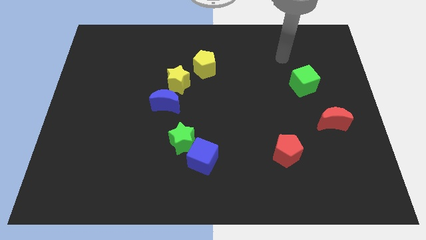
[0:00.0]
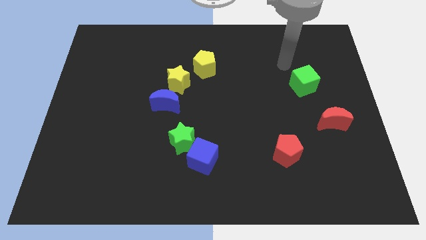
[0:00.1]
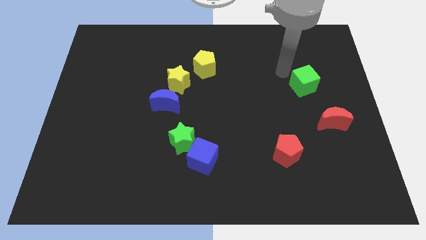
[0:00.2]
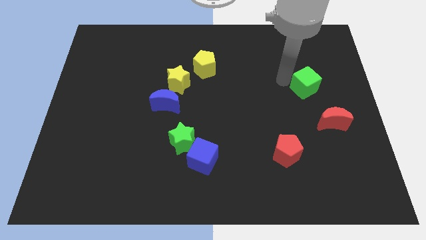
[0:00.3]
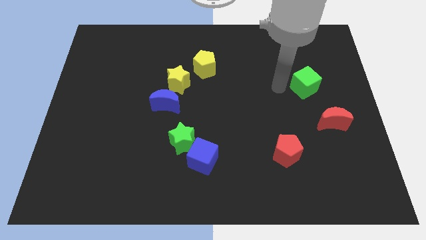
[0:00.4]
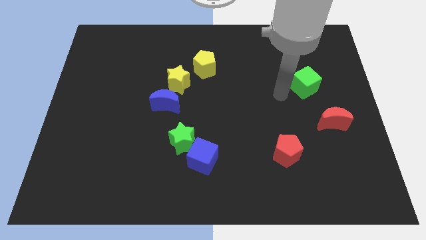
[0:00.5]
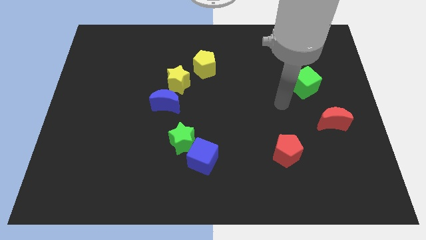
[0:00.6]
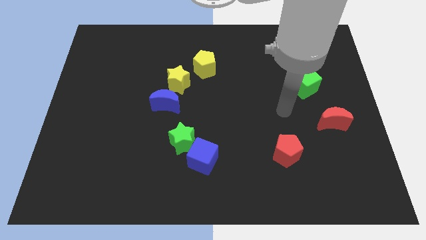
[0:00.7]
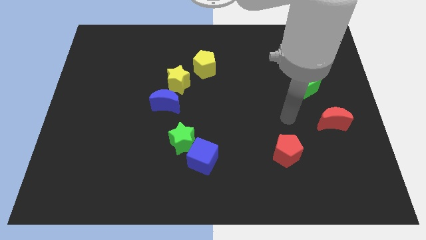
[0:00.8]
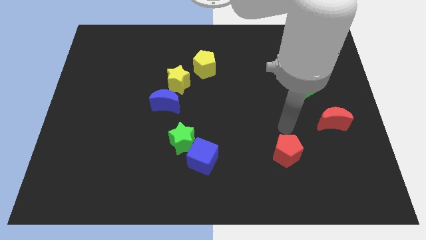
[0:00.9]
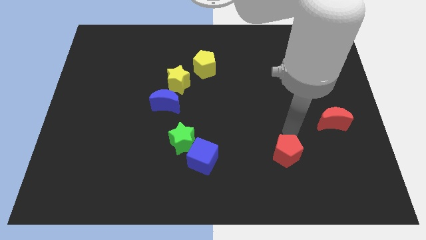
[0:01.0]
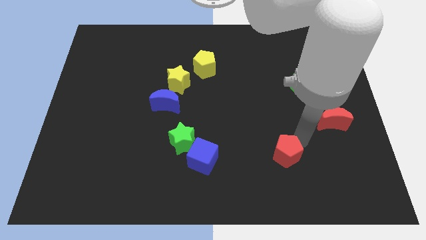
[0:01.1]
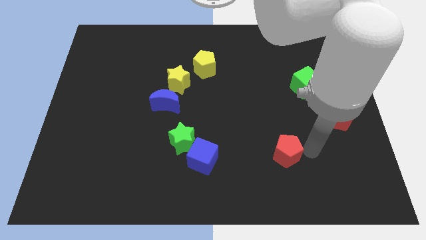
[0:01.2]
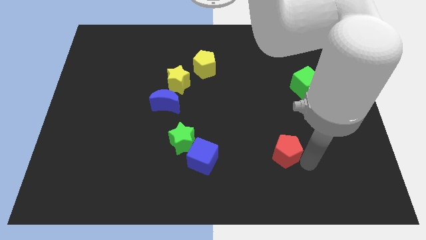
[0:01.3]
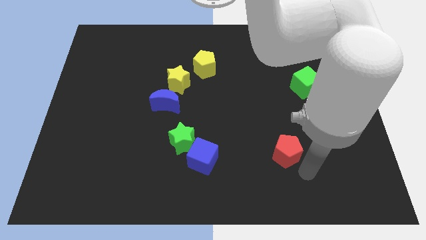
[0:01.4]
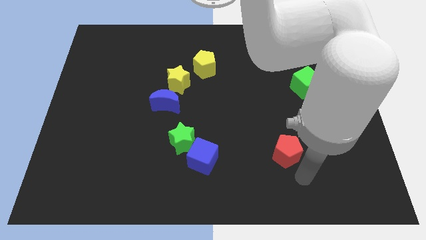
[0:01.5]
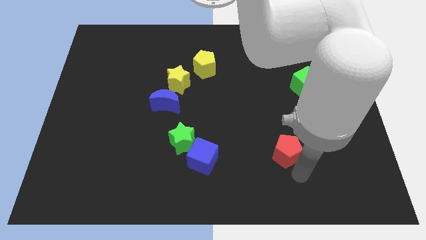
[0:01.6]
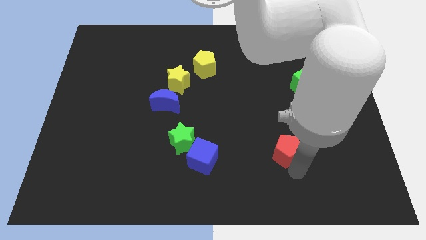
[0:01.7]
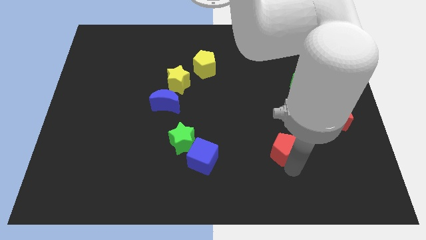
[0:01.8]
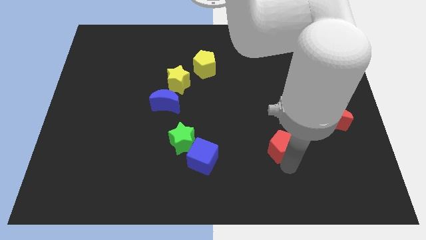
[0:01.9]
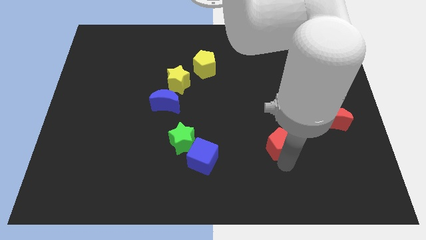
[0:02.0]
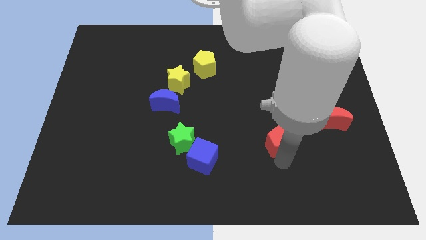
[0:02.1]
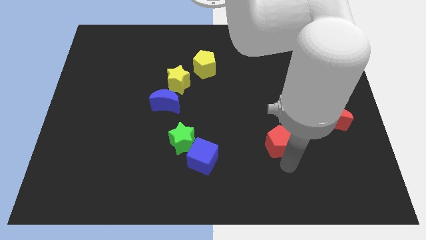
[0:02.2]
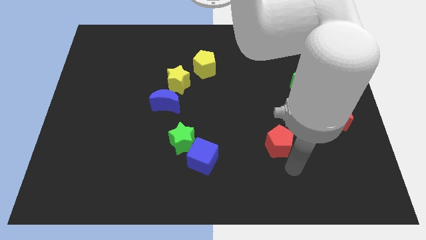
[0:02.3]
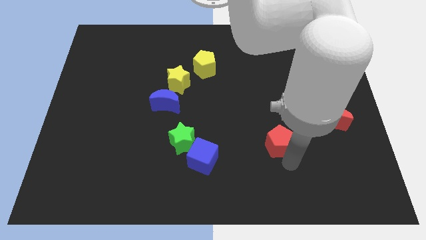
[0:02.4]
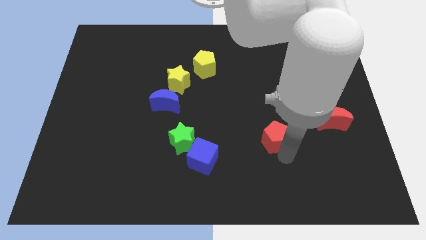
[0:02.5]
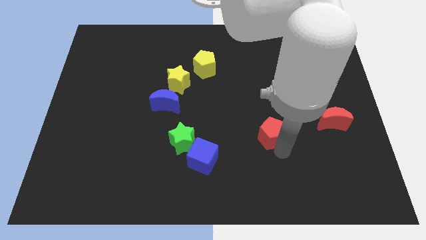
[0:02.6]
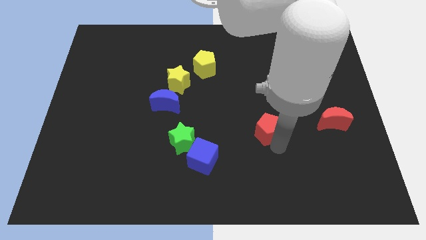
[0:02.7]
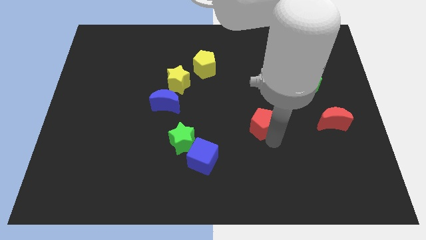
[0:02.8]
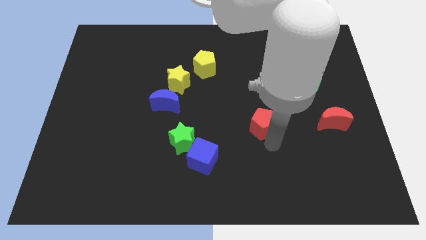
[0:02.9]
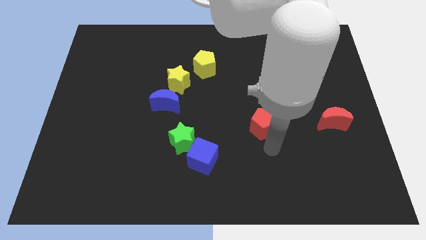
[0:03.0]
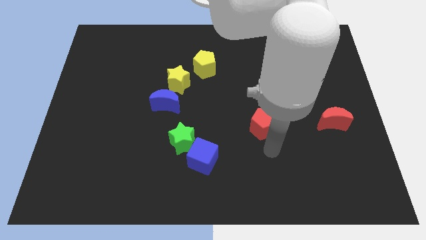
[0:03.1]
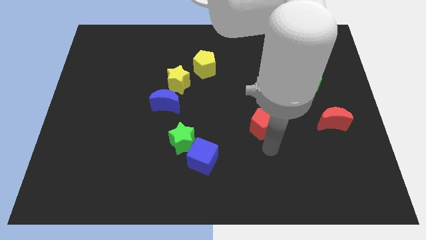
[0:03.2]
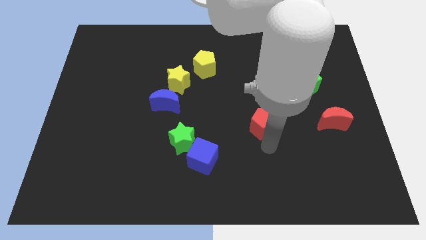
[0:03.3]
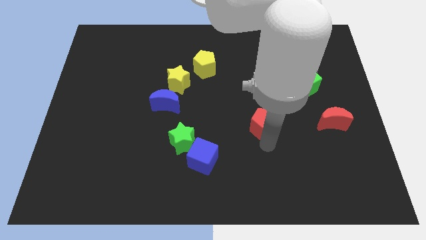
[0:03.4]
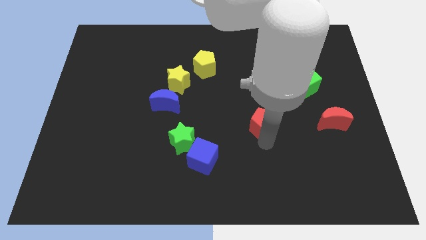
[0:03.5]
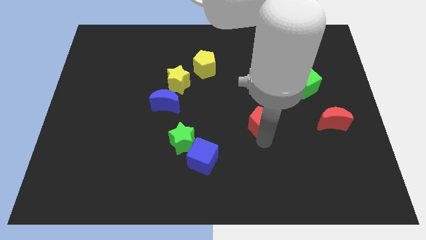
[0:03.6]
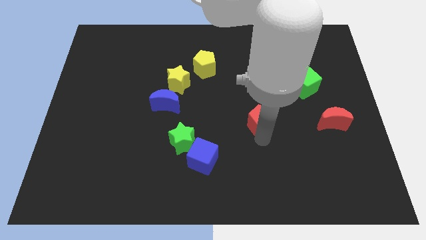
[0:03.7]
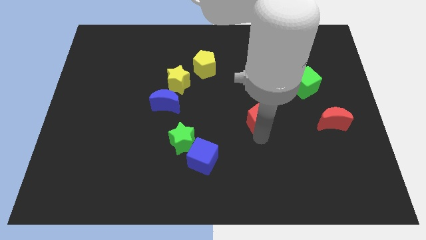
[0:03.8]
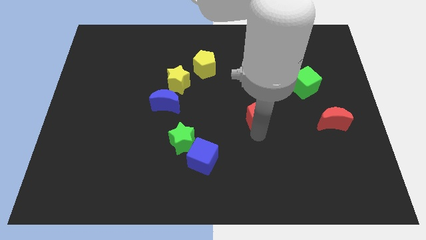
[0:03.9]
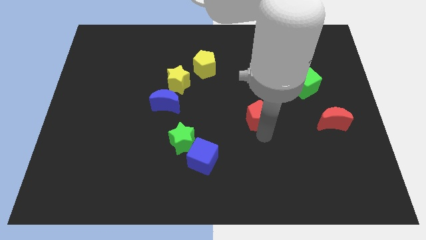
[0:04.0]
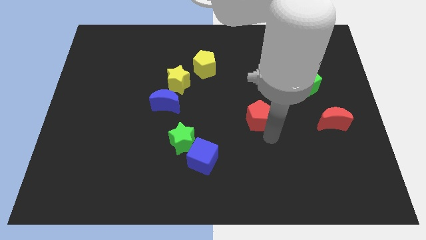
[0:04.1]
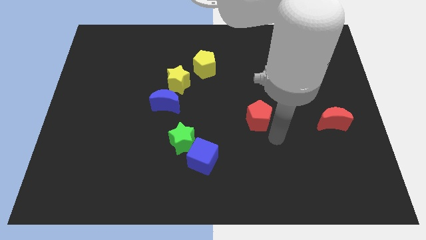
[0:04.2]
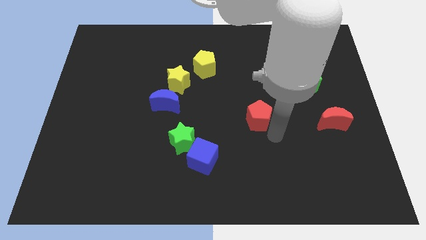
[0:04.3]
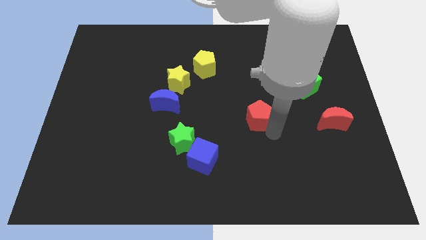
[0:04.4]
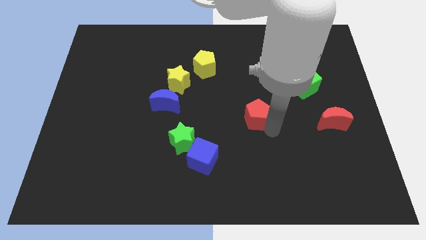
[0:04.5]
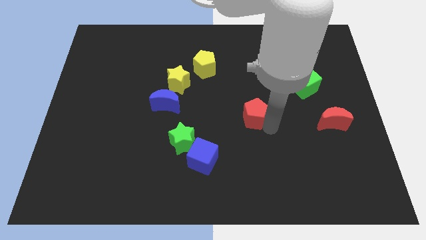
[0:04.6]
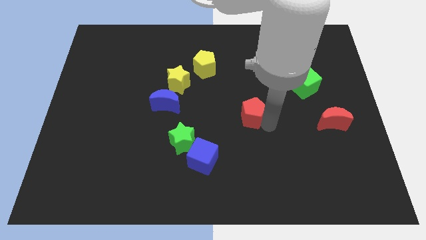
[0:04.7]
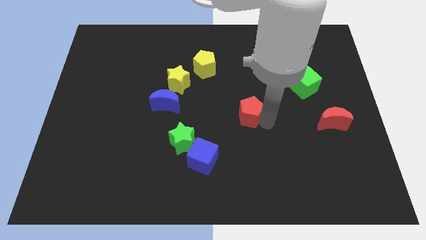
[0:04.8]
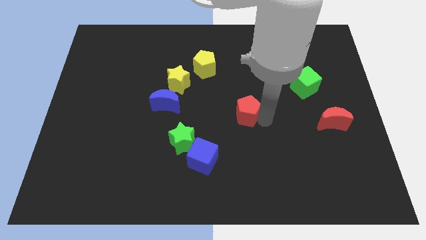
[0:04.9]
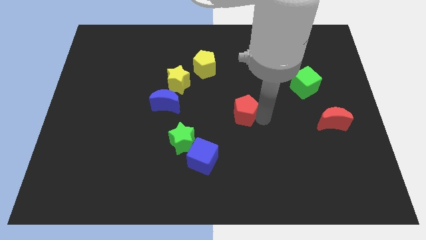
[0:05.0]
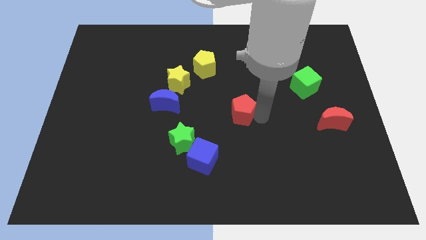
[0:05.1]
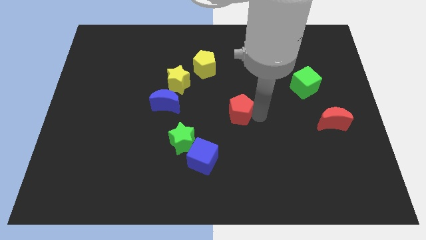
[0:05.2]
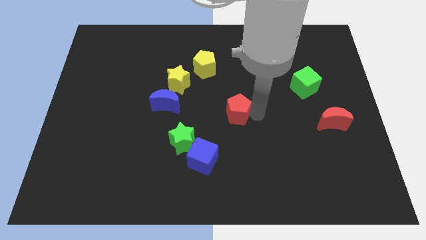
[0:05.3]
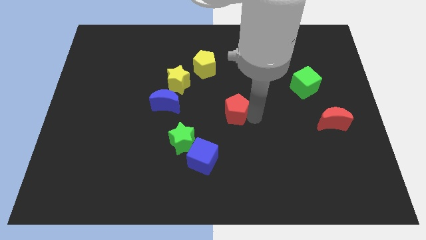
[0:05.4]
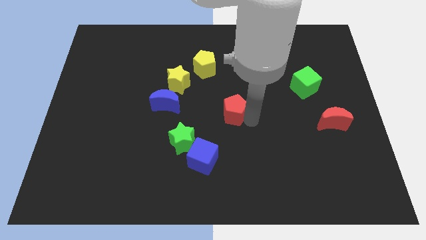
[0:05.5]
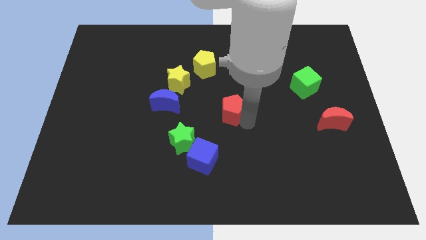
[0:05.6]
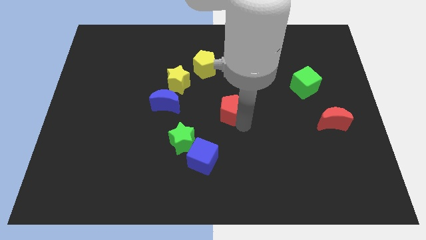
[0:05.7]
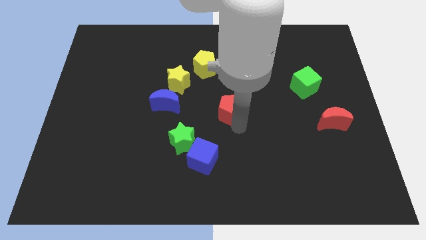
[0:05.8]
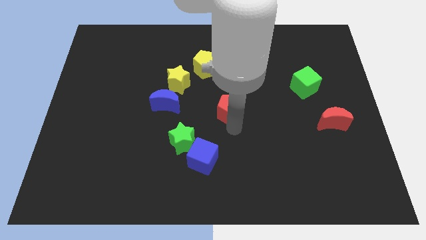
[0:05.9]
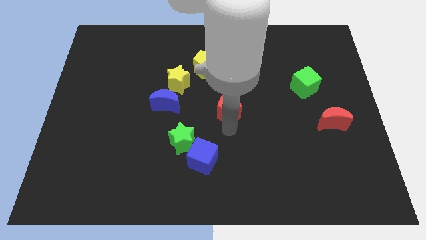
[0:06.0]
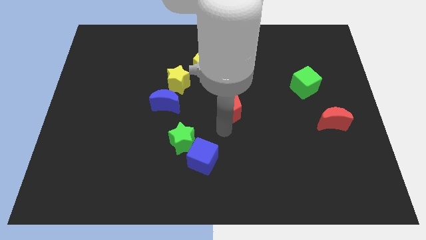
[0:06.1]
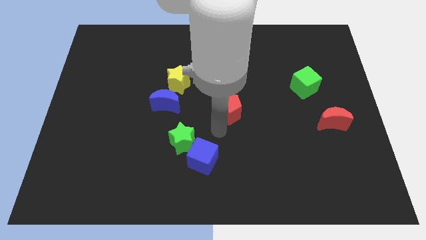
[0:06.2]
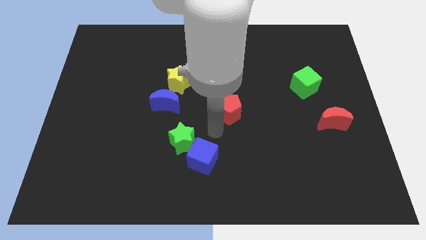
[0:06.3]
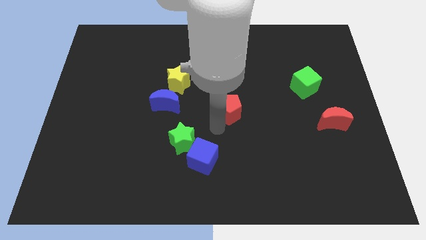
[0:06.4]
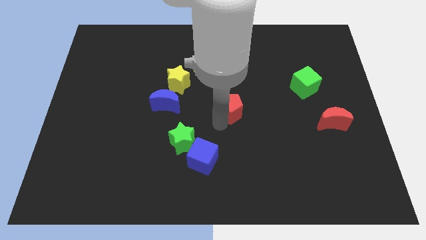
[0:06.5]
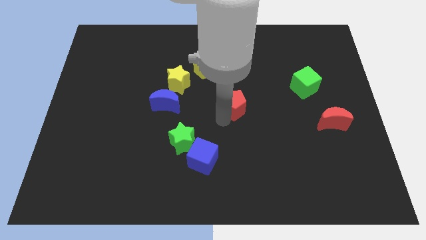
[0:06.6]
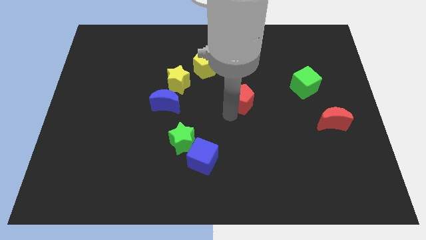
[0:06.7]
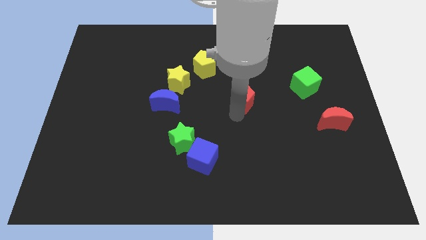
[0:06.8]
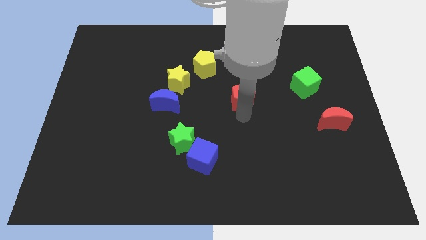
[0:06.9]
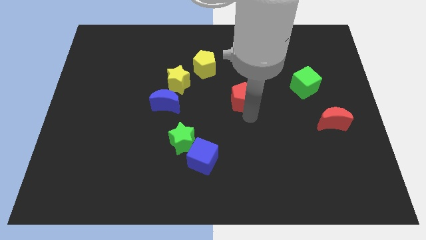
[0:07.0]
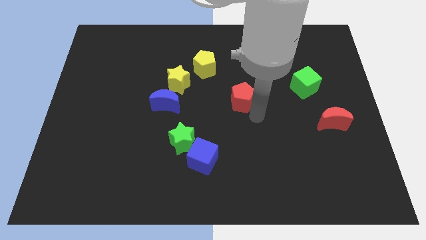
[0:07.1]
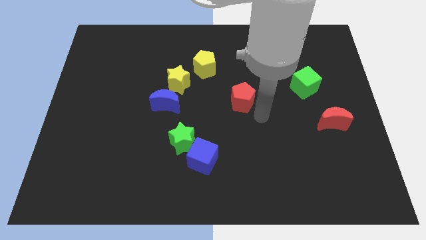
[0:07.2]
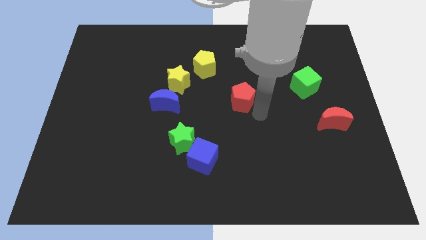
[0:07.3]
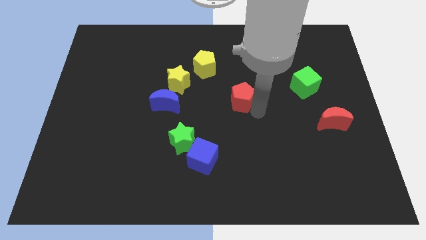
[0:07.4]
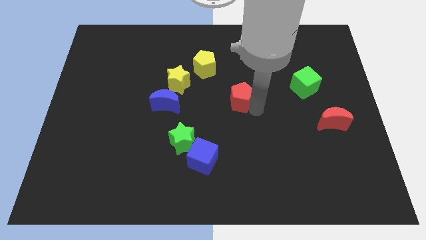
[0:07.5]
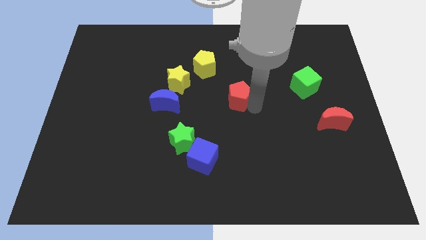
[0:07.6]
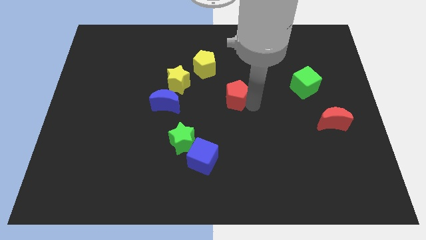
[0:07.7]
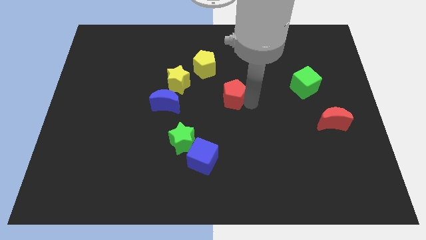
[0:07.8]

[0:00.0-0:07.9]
slide the red pentagon to the right of the yellow star

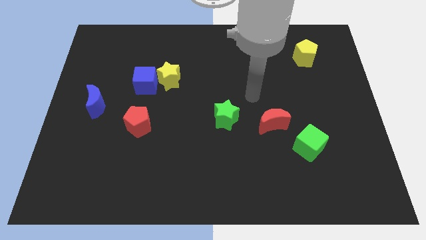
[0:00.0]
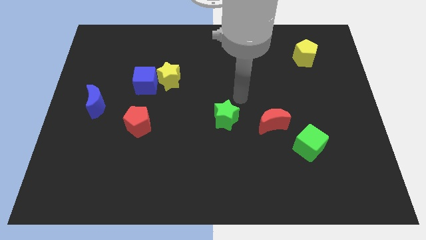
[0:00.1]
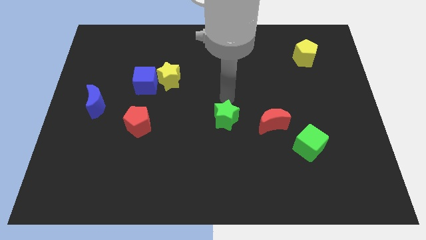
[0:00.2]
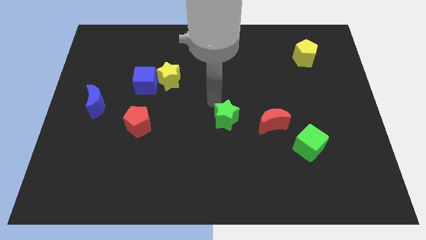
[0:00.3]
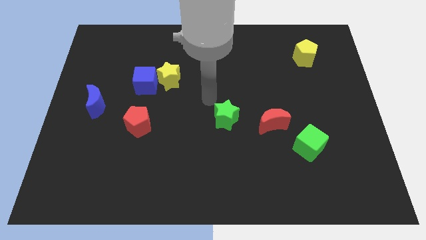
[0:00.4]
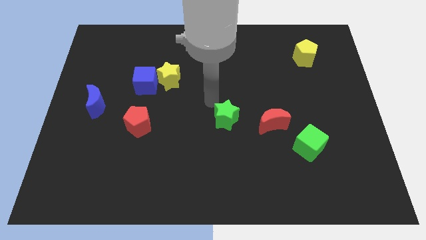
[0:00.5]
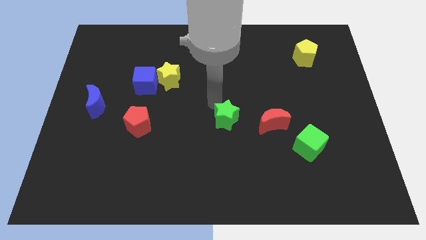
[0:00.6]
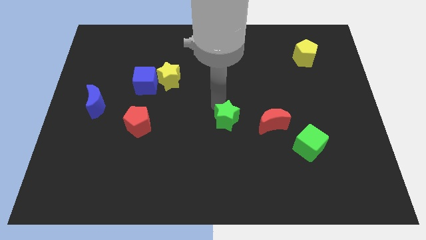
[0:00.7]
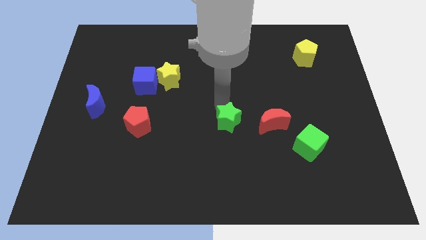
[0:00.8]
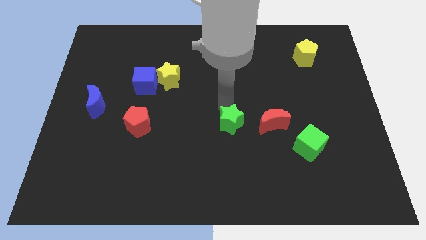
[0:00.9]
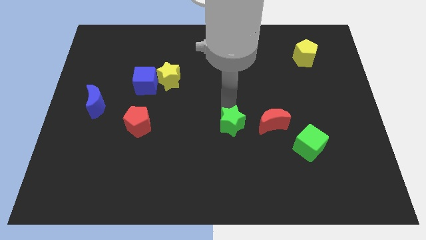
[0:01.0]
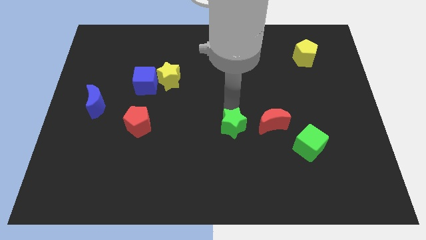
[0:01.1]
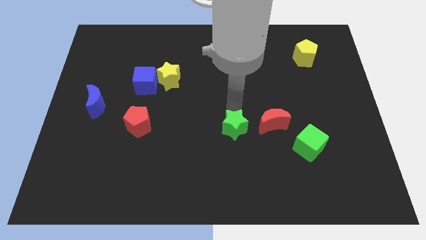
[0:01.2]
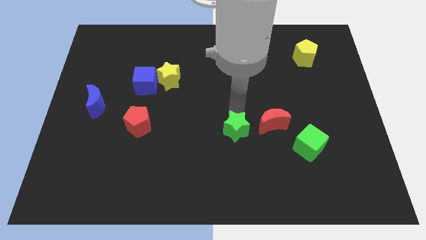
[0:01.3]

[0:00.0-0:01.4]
push the green star to the bottom left of the red moon
